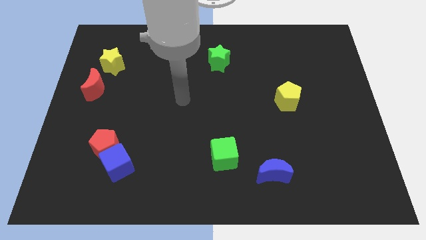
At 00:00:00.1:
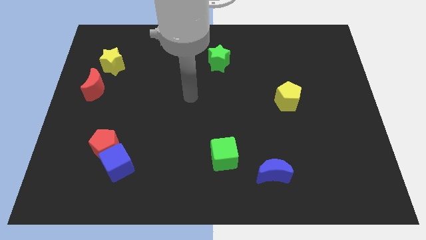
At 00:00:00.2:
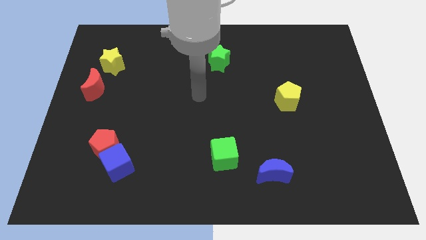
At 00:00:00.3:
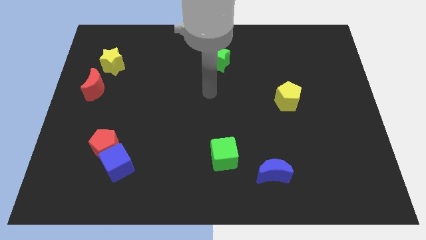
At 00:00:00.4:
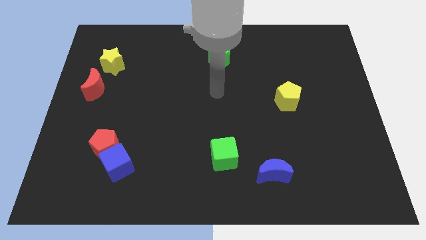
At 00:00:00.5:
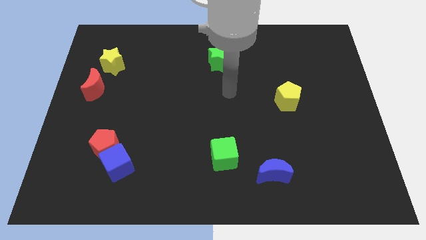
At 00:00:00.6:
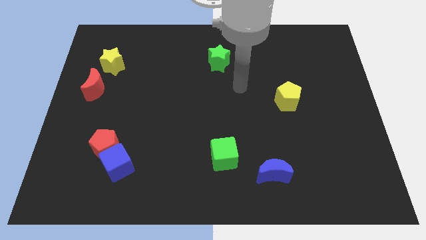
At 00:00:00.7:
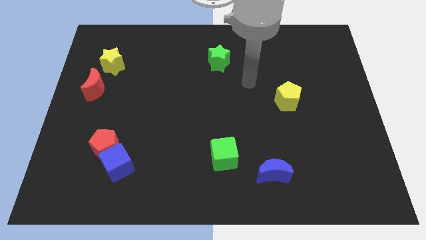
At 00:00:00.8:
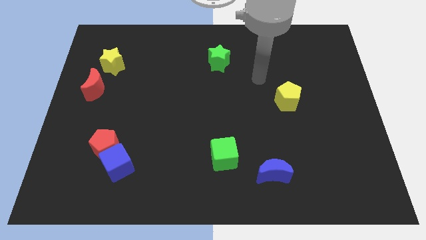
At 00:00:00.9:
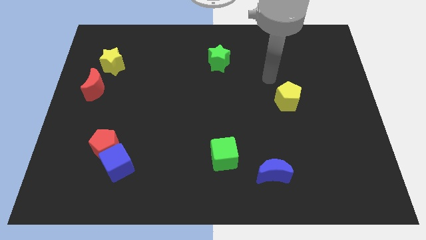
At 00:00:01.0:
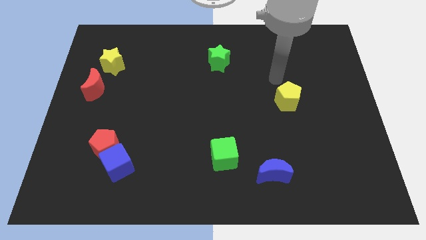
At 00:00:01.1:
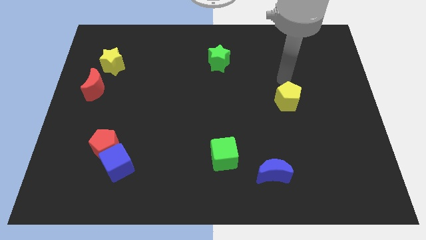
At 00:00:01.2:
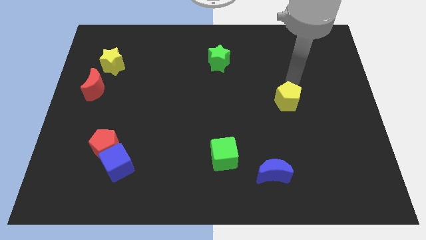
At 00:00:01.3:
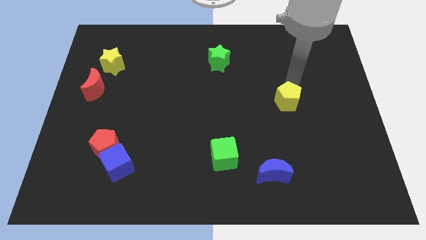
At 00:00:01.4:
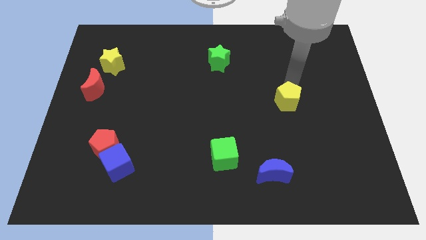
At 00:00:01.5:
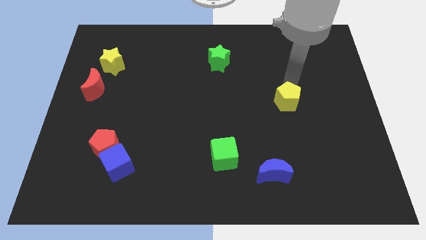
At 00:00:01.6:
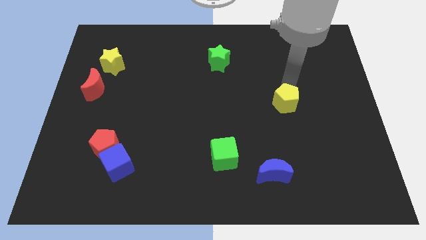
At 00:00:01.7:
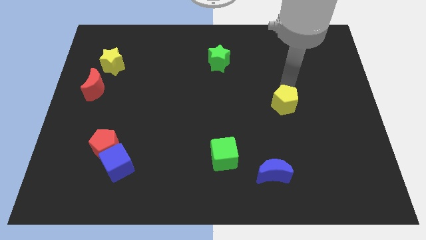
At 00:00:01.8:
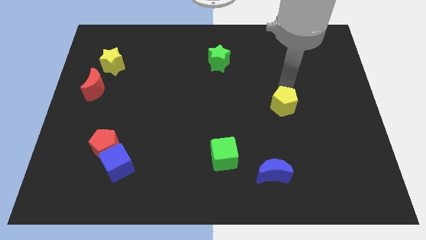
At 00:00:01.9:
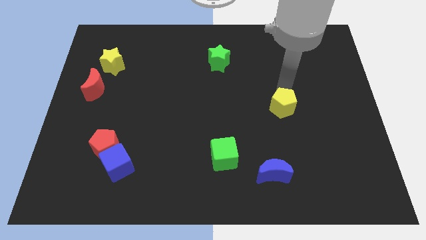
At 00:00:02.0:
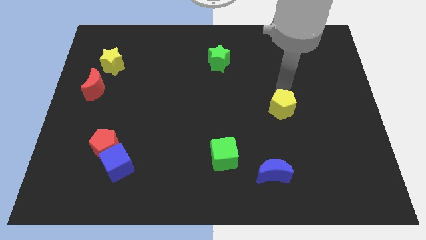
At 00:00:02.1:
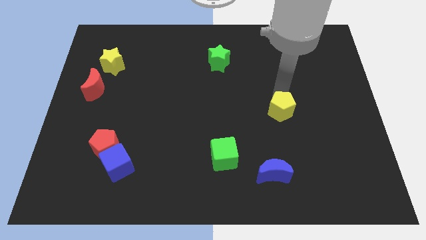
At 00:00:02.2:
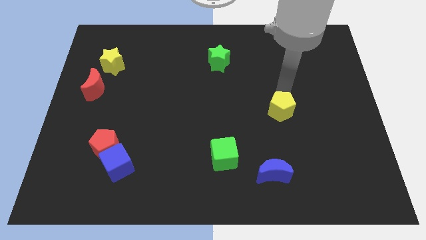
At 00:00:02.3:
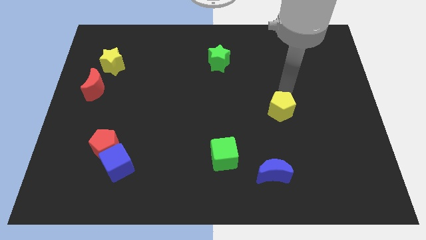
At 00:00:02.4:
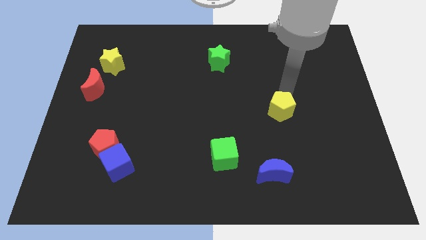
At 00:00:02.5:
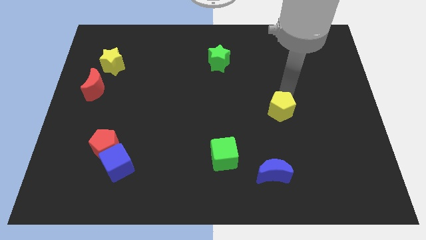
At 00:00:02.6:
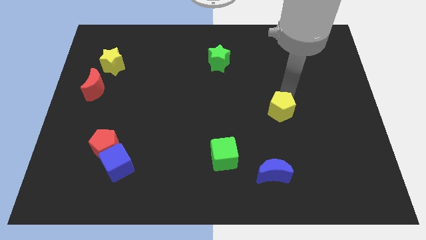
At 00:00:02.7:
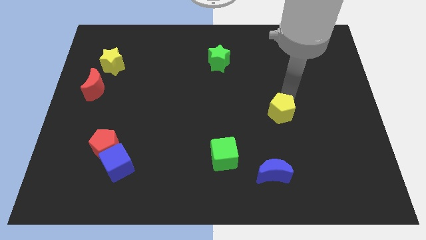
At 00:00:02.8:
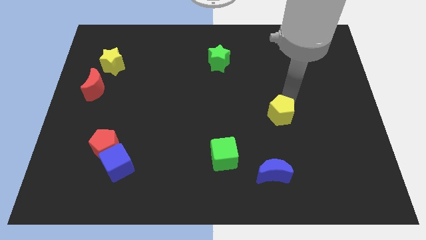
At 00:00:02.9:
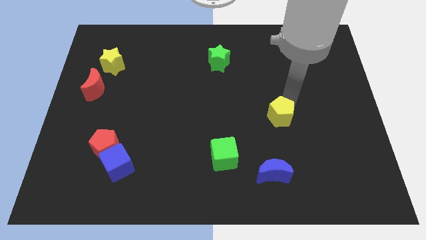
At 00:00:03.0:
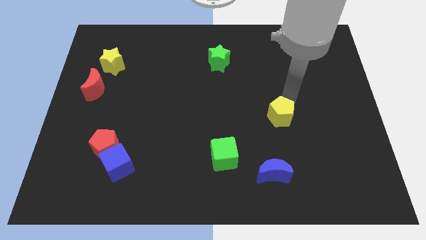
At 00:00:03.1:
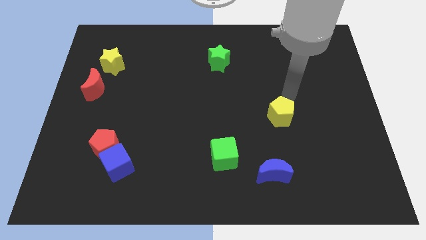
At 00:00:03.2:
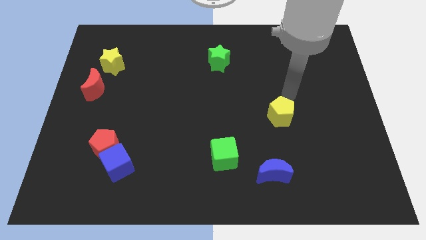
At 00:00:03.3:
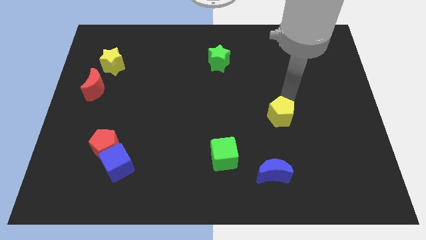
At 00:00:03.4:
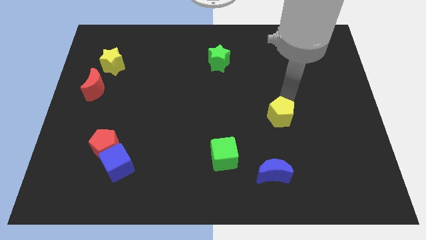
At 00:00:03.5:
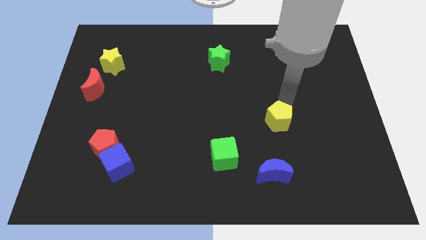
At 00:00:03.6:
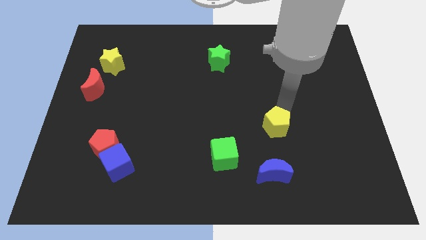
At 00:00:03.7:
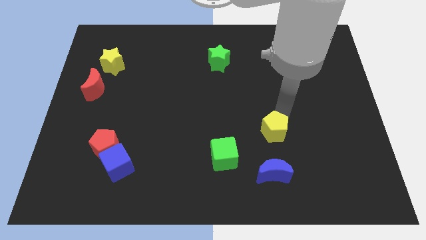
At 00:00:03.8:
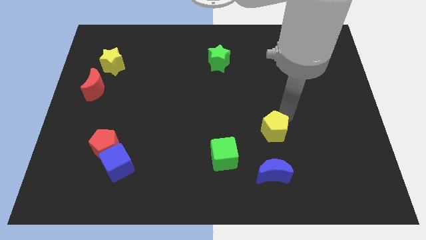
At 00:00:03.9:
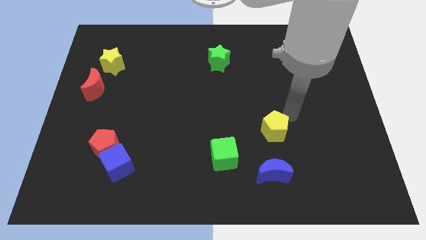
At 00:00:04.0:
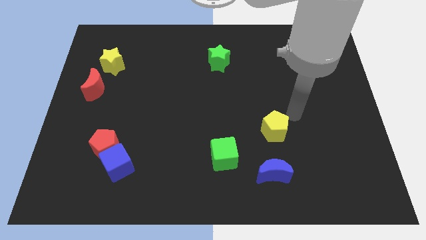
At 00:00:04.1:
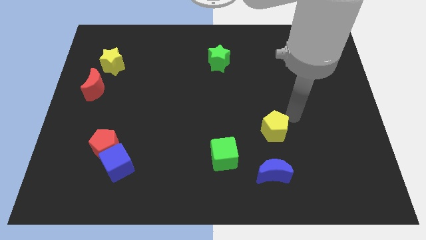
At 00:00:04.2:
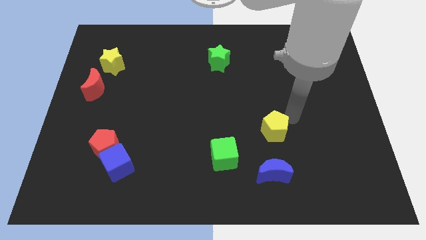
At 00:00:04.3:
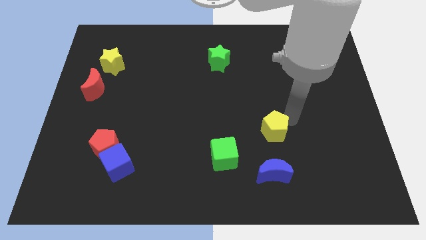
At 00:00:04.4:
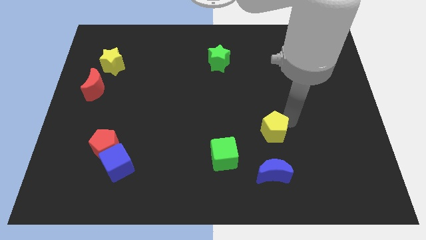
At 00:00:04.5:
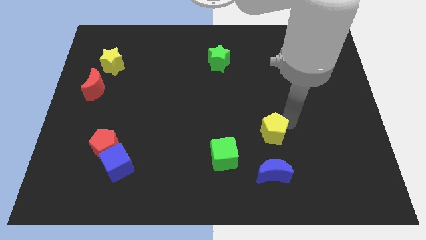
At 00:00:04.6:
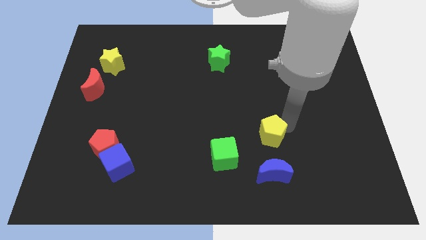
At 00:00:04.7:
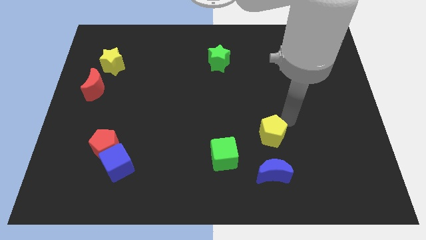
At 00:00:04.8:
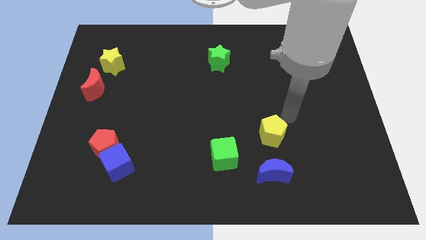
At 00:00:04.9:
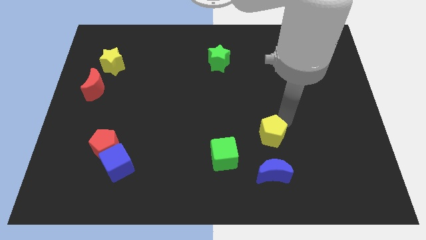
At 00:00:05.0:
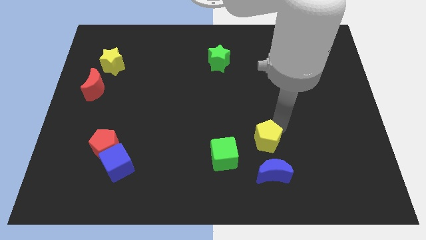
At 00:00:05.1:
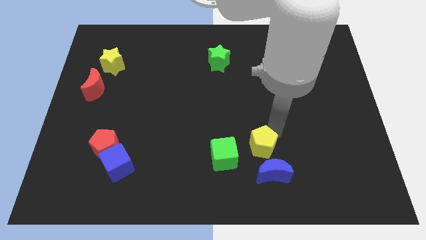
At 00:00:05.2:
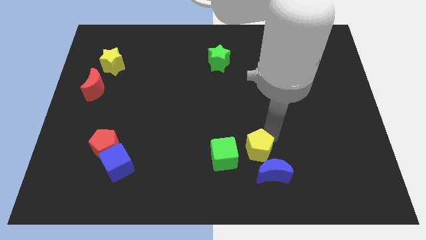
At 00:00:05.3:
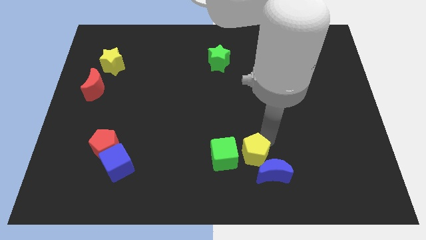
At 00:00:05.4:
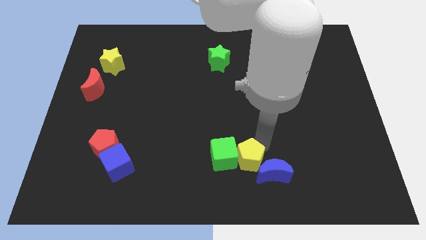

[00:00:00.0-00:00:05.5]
put the yellow pentagon just left of the blue moon

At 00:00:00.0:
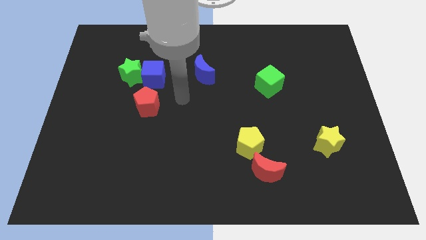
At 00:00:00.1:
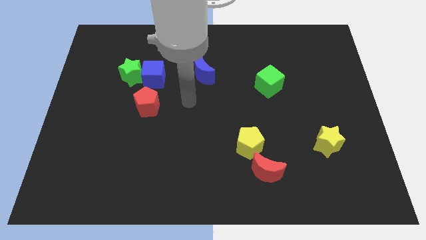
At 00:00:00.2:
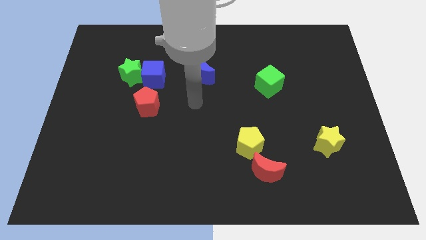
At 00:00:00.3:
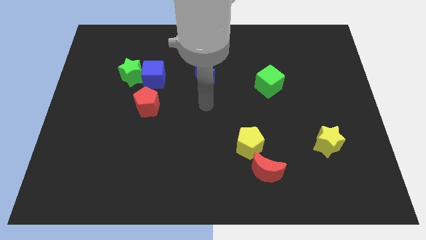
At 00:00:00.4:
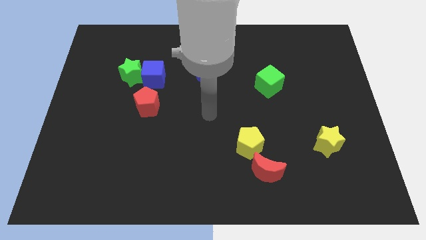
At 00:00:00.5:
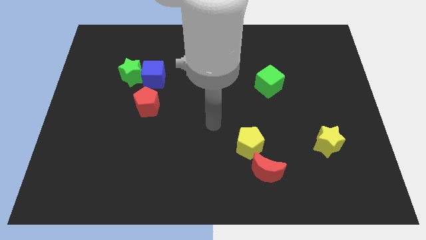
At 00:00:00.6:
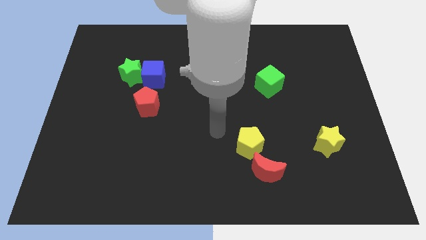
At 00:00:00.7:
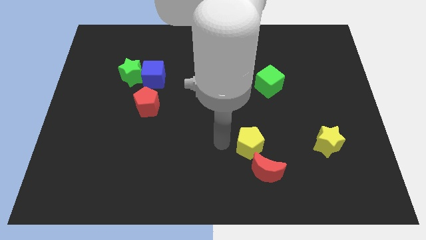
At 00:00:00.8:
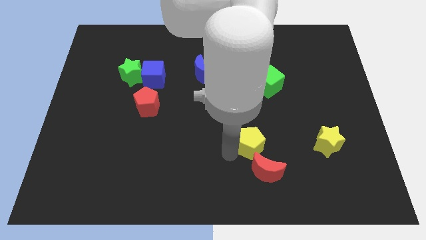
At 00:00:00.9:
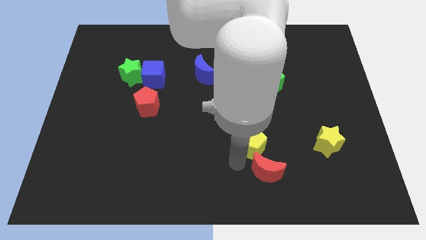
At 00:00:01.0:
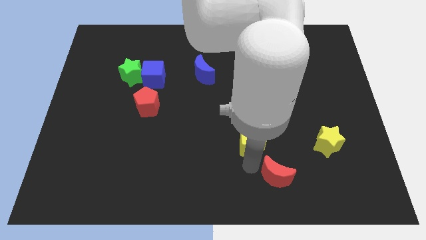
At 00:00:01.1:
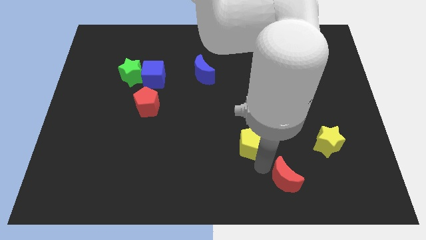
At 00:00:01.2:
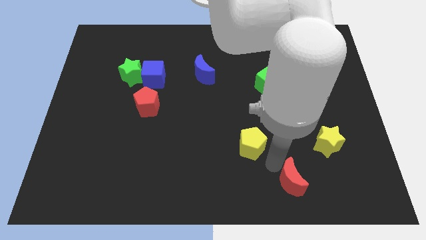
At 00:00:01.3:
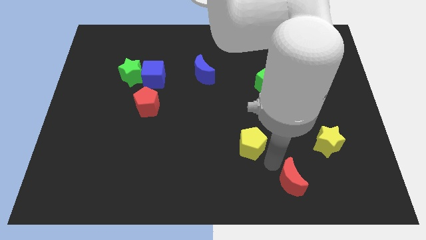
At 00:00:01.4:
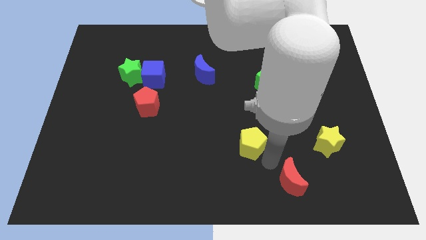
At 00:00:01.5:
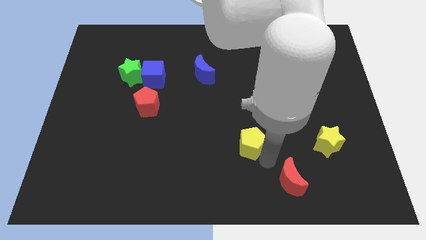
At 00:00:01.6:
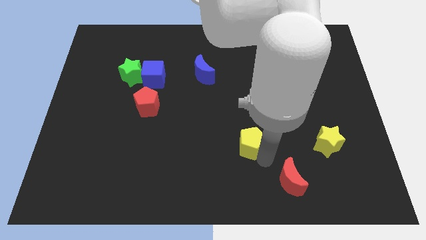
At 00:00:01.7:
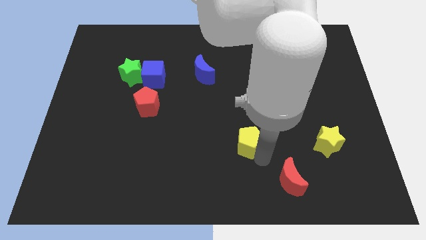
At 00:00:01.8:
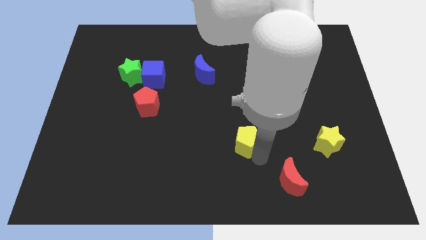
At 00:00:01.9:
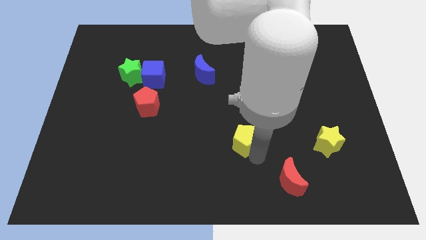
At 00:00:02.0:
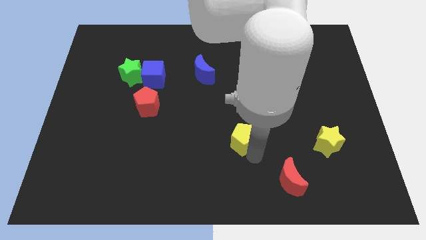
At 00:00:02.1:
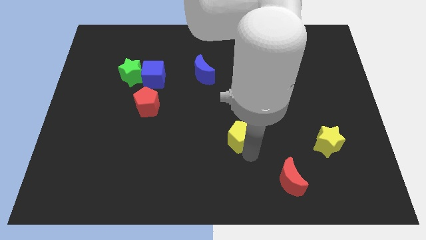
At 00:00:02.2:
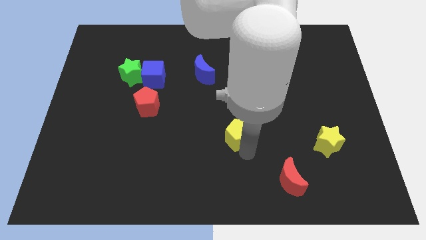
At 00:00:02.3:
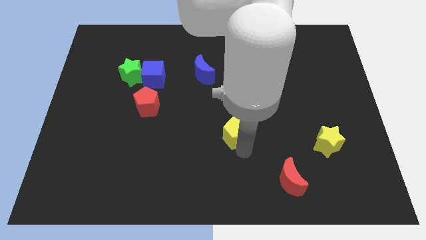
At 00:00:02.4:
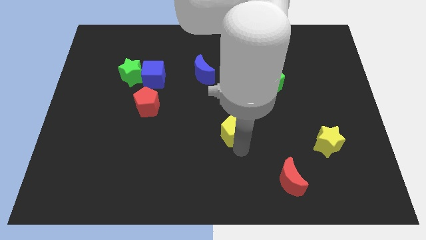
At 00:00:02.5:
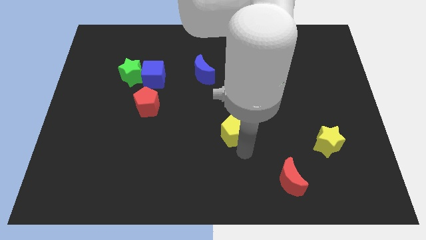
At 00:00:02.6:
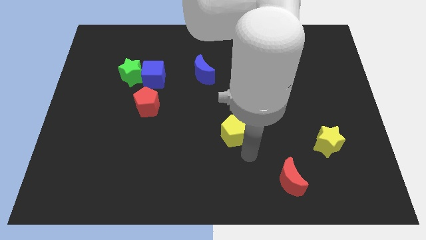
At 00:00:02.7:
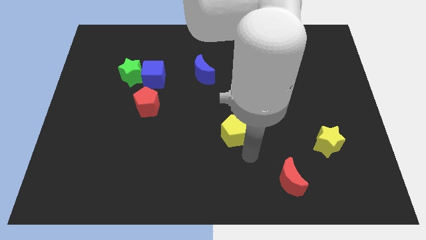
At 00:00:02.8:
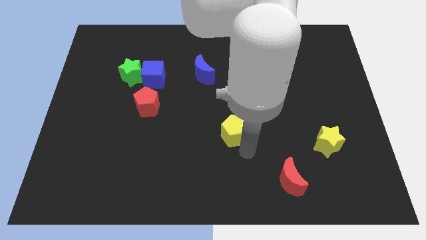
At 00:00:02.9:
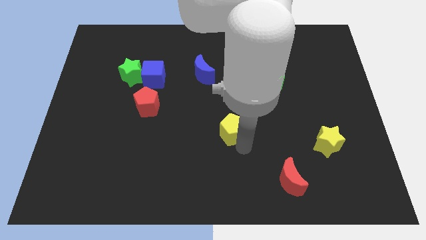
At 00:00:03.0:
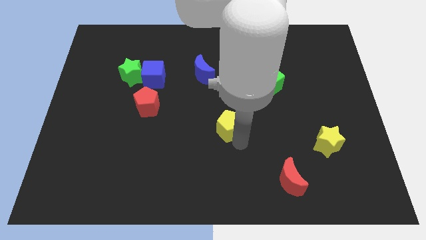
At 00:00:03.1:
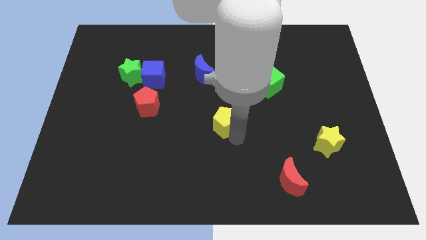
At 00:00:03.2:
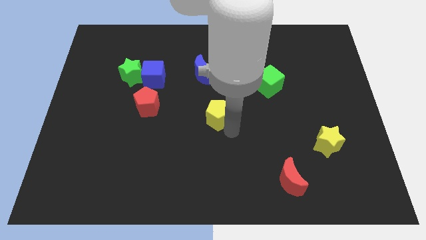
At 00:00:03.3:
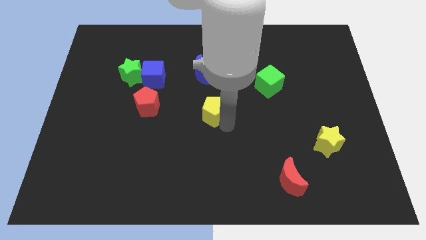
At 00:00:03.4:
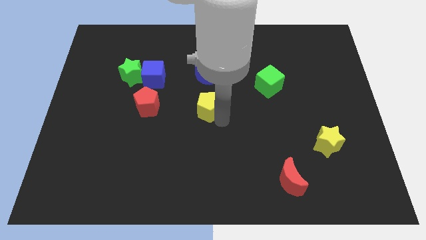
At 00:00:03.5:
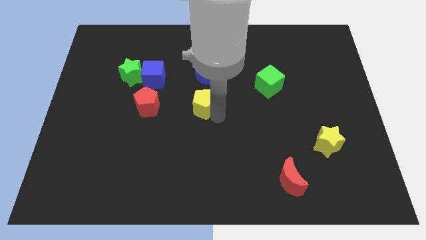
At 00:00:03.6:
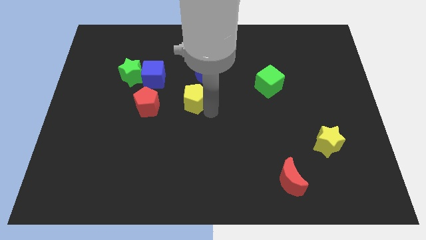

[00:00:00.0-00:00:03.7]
push the yellow pentagon diagonally down and to the left of the blue moon
